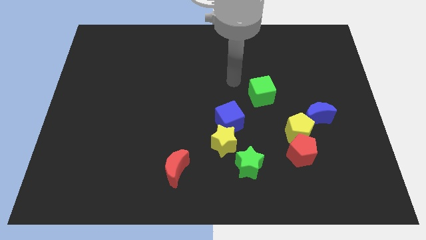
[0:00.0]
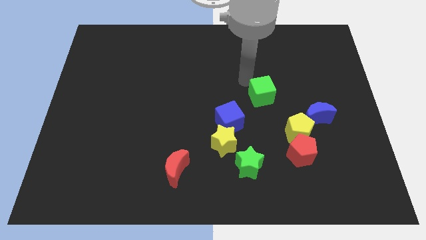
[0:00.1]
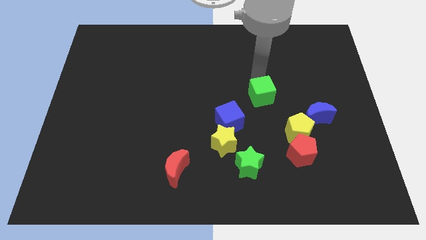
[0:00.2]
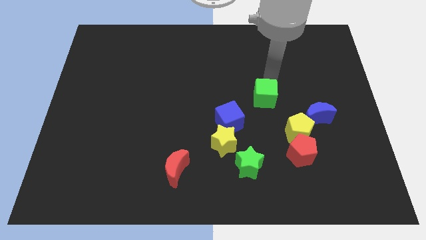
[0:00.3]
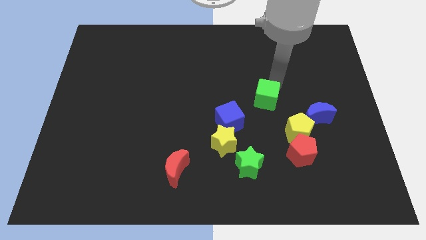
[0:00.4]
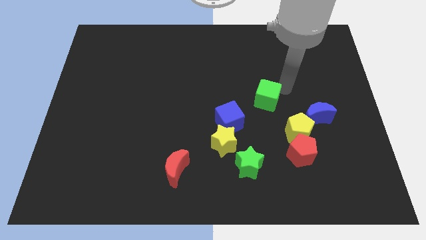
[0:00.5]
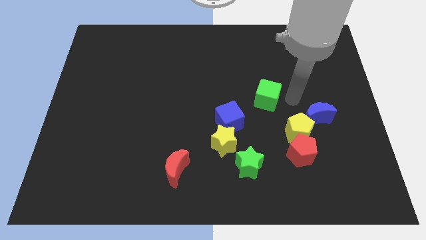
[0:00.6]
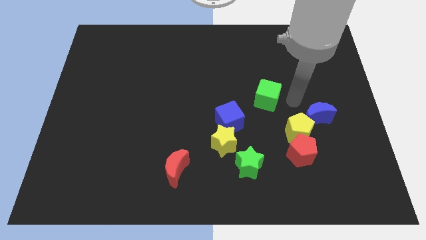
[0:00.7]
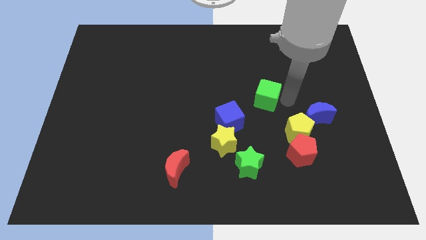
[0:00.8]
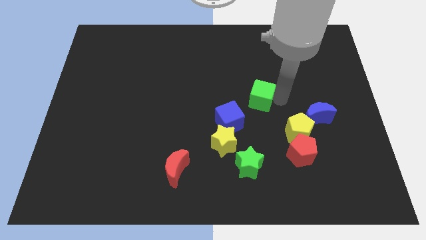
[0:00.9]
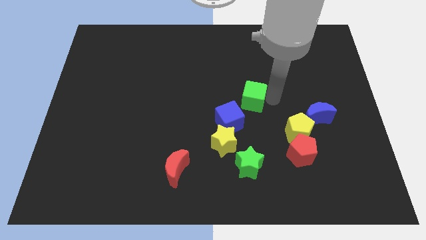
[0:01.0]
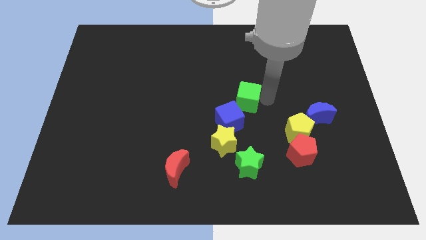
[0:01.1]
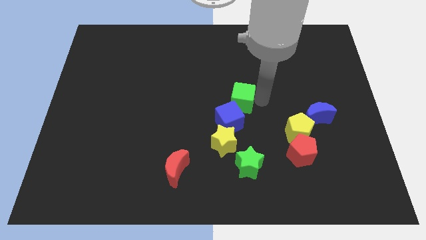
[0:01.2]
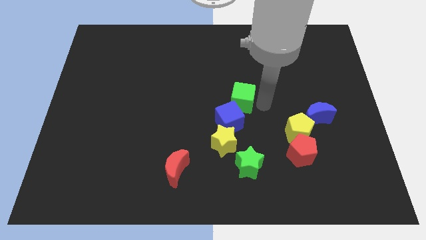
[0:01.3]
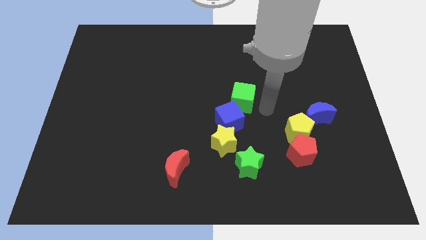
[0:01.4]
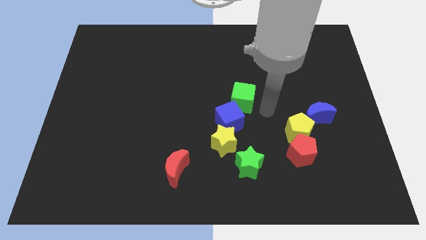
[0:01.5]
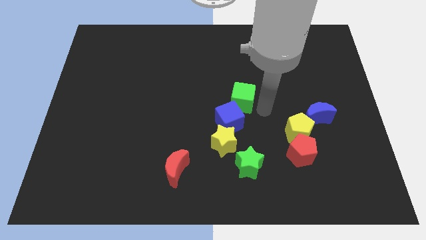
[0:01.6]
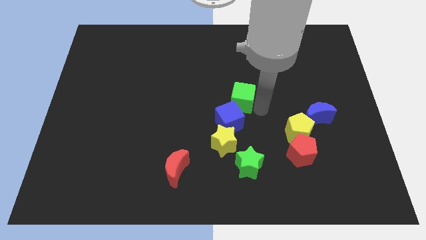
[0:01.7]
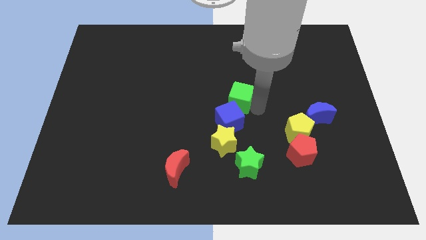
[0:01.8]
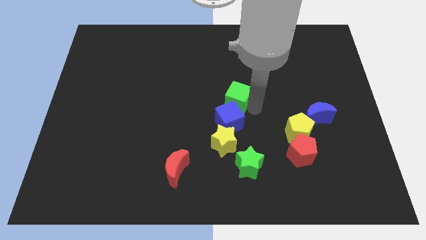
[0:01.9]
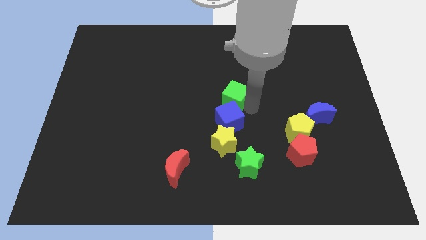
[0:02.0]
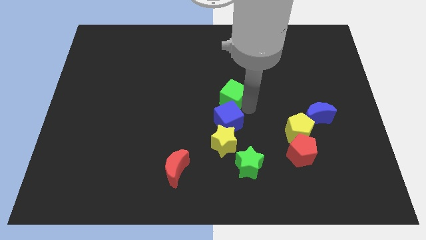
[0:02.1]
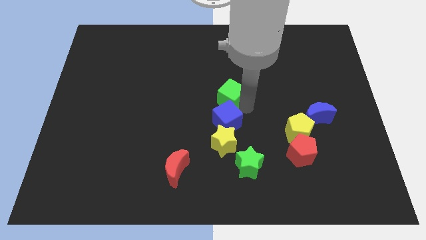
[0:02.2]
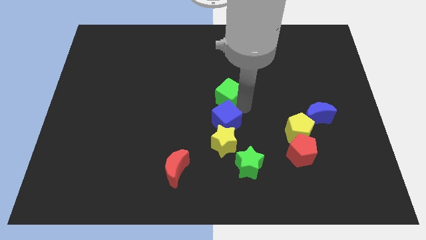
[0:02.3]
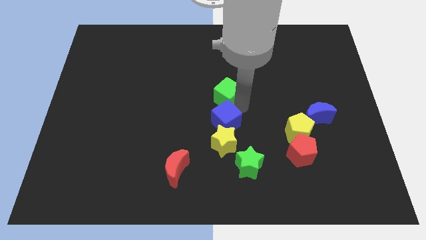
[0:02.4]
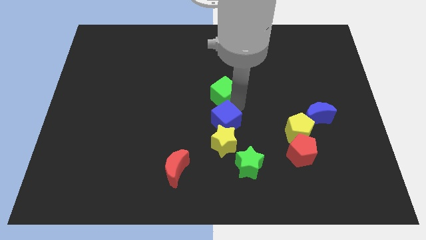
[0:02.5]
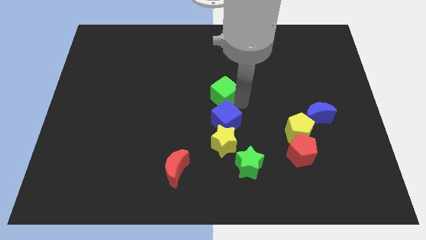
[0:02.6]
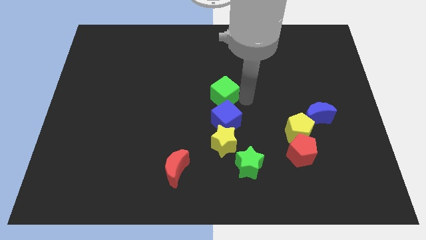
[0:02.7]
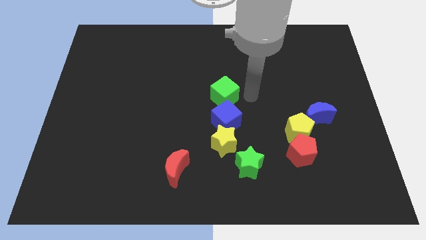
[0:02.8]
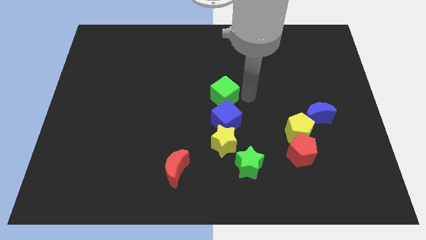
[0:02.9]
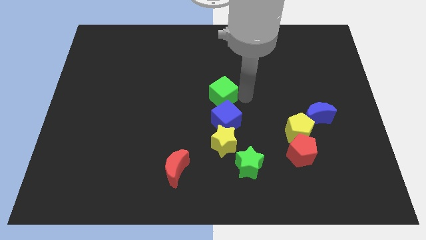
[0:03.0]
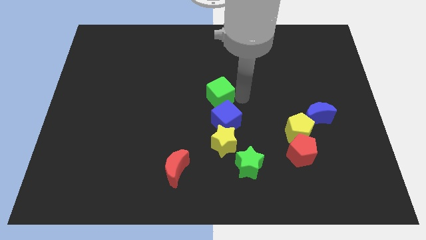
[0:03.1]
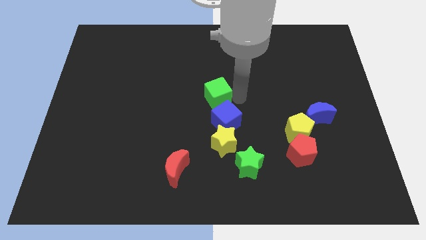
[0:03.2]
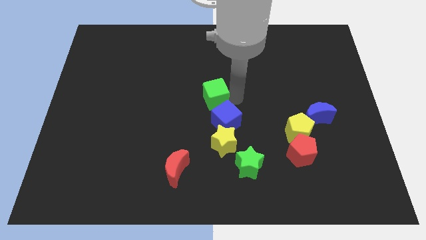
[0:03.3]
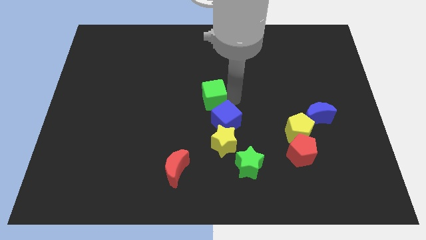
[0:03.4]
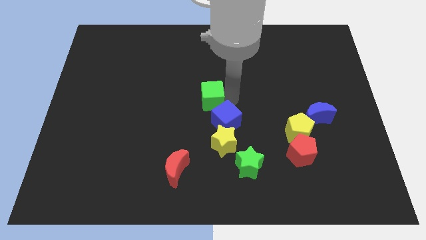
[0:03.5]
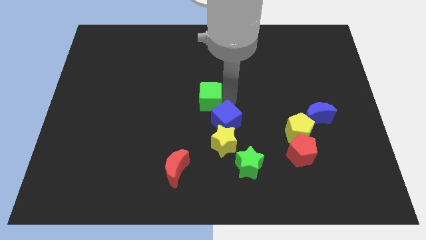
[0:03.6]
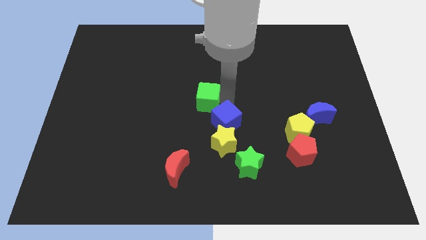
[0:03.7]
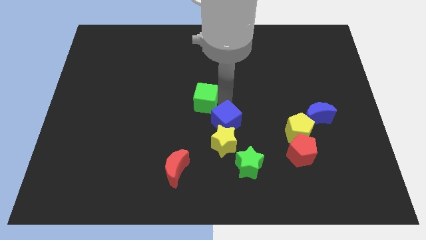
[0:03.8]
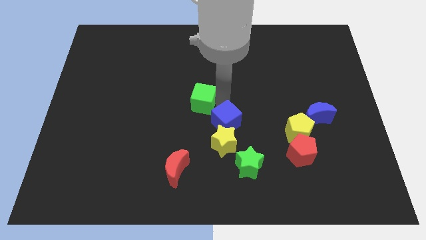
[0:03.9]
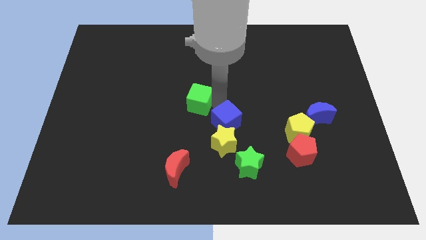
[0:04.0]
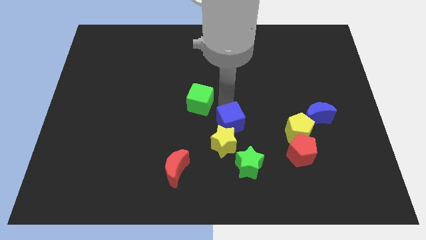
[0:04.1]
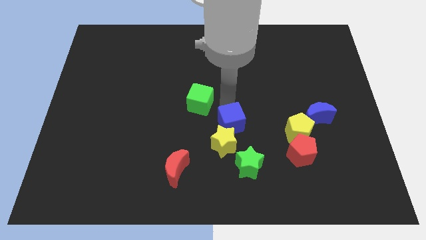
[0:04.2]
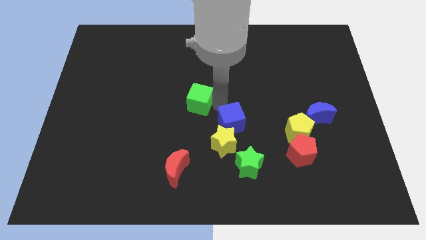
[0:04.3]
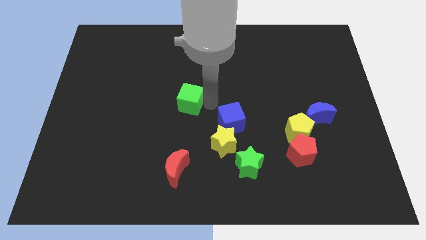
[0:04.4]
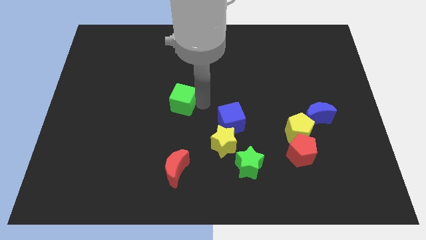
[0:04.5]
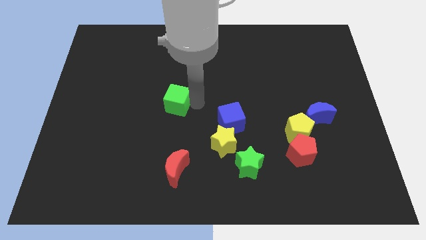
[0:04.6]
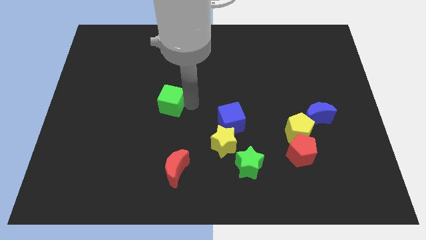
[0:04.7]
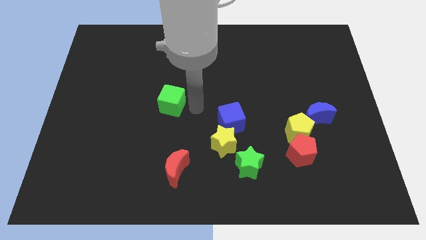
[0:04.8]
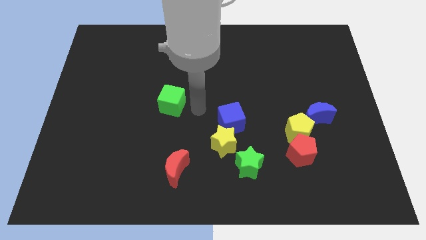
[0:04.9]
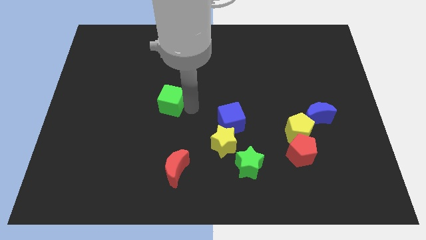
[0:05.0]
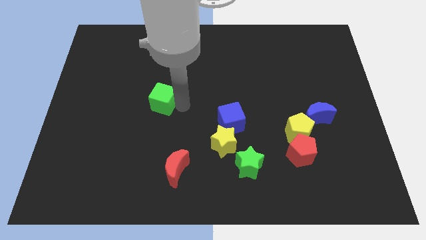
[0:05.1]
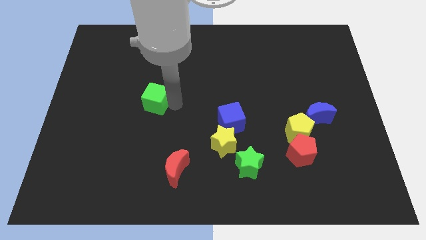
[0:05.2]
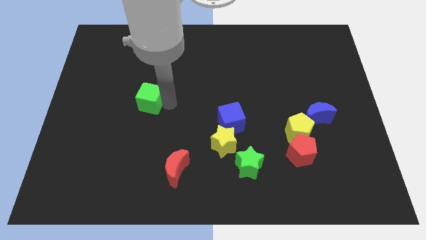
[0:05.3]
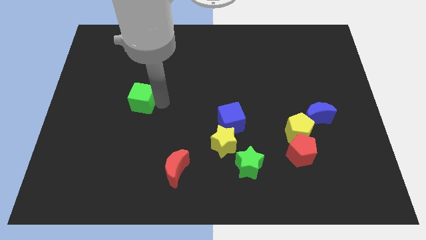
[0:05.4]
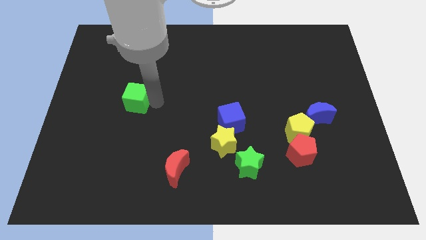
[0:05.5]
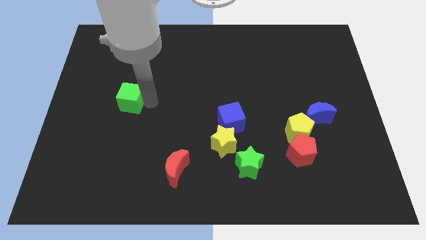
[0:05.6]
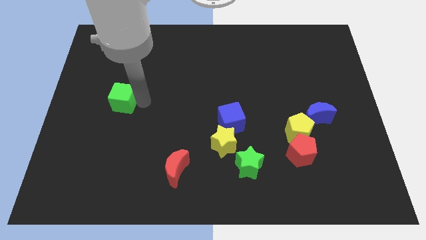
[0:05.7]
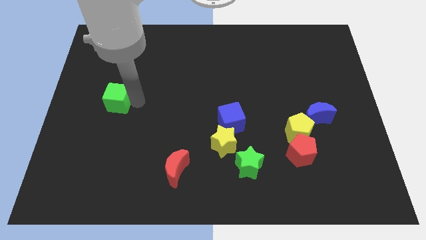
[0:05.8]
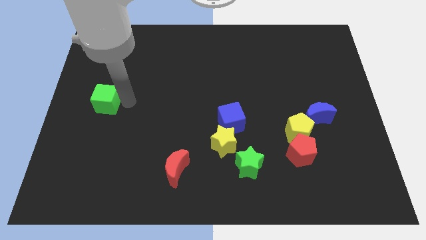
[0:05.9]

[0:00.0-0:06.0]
move the green cube to the center left

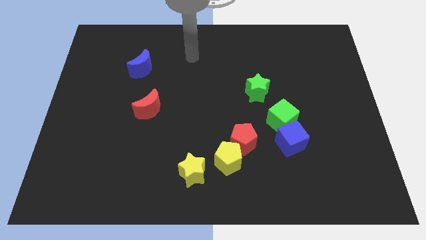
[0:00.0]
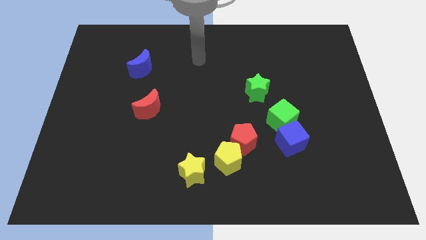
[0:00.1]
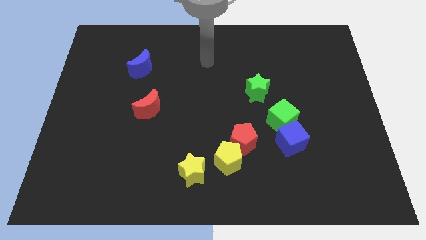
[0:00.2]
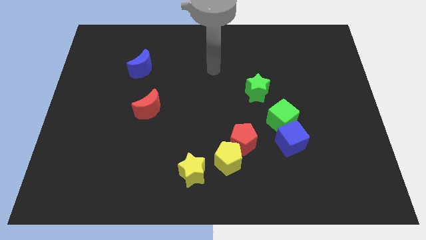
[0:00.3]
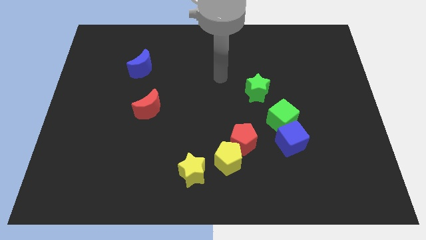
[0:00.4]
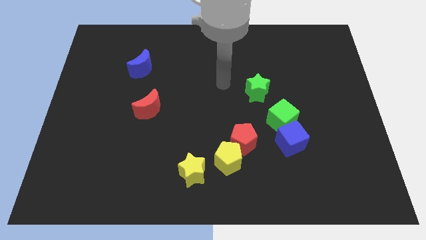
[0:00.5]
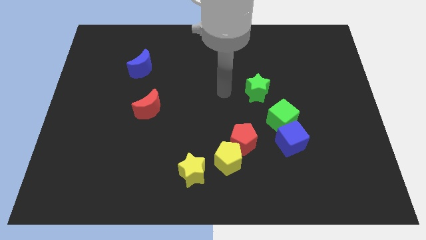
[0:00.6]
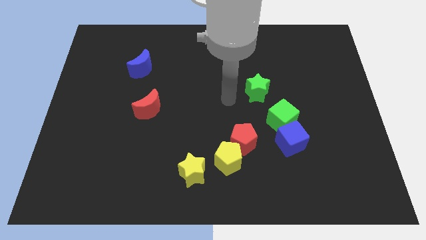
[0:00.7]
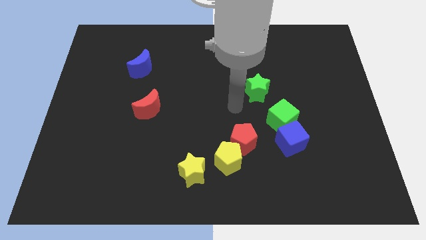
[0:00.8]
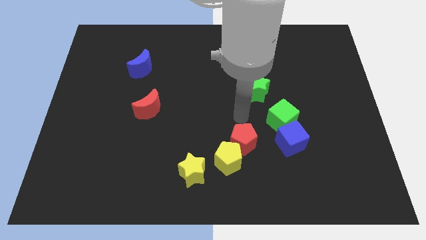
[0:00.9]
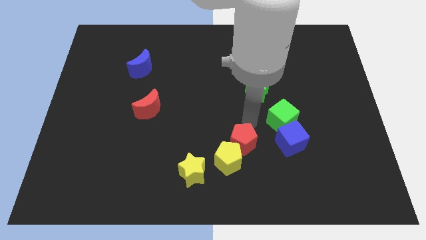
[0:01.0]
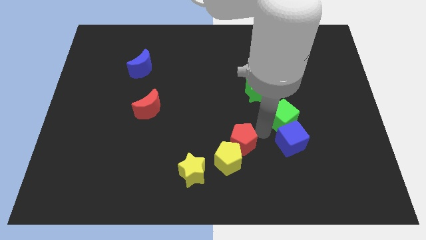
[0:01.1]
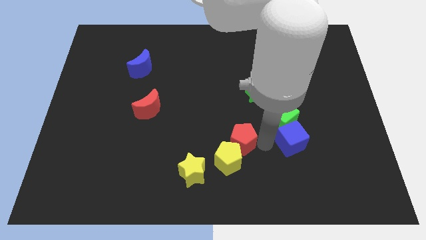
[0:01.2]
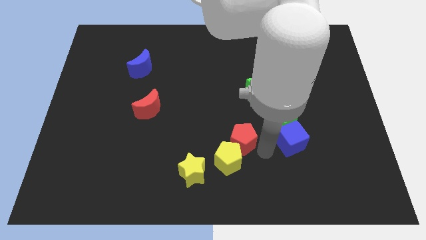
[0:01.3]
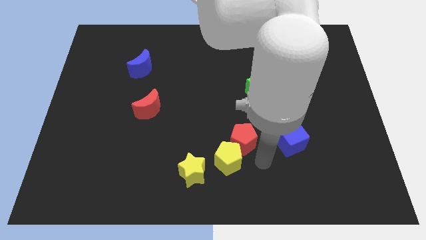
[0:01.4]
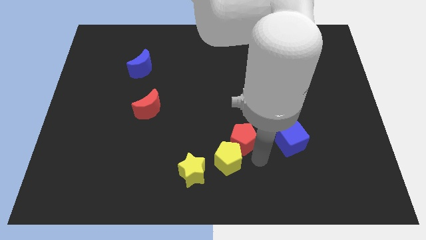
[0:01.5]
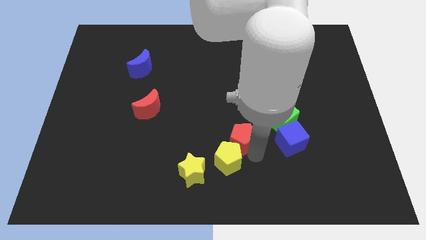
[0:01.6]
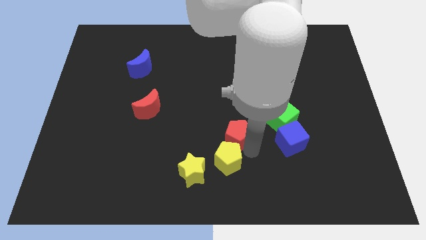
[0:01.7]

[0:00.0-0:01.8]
put the red pentagon to the center of the board
